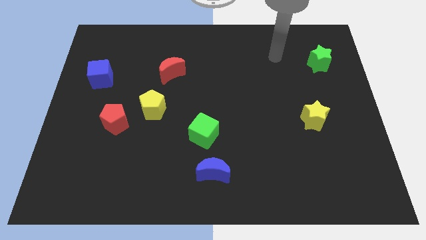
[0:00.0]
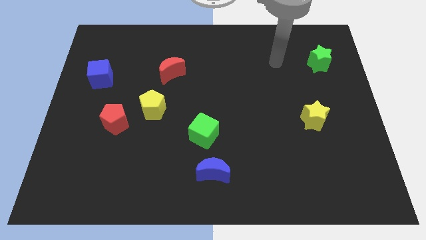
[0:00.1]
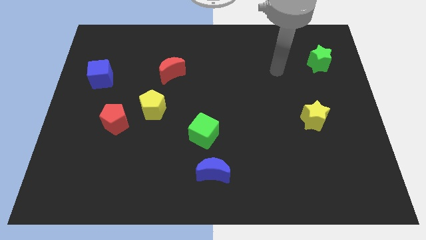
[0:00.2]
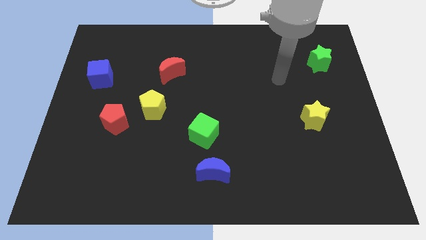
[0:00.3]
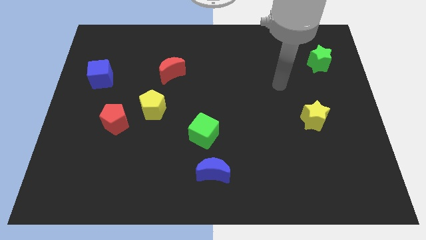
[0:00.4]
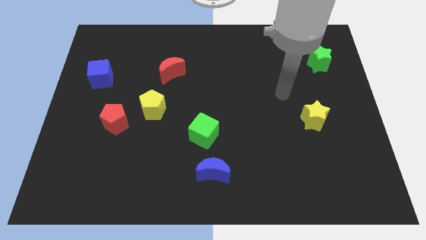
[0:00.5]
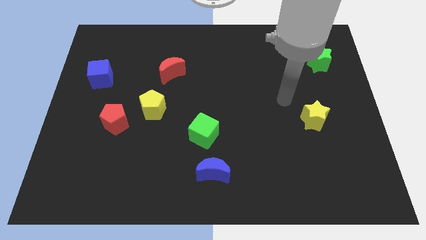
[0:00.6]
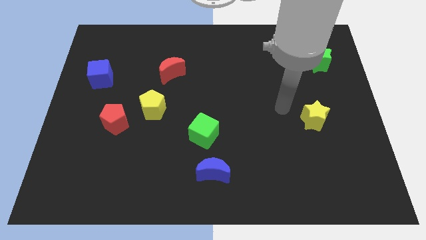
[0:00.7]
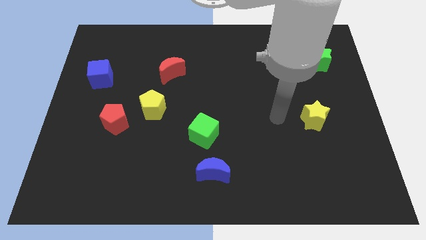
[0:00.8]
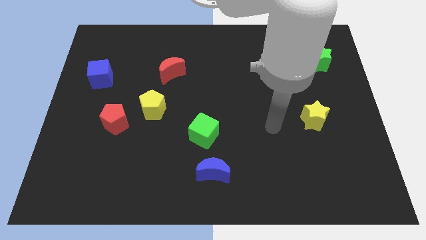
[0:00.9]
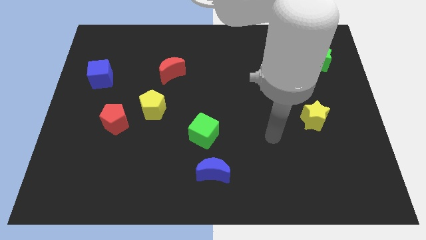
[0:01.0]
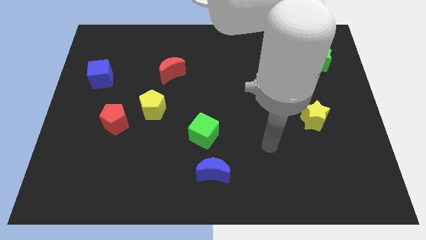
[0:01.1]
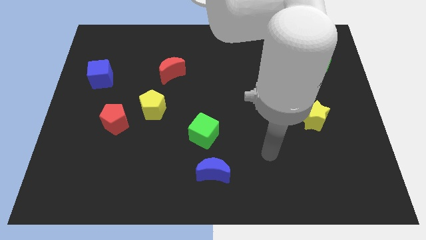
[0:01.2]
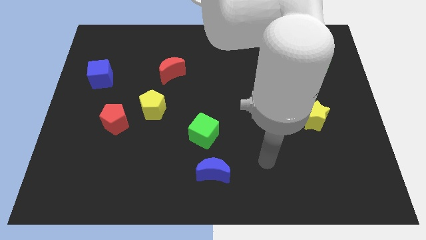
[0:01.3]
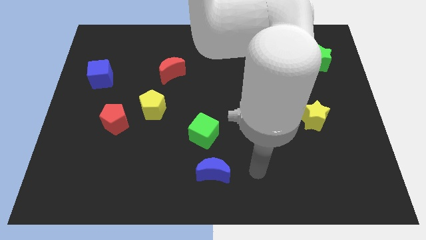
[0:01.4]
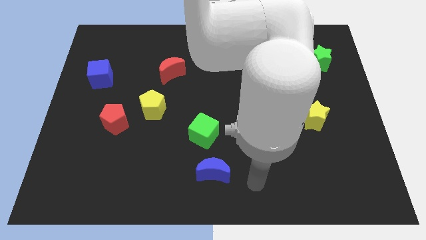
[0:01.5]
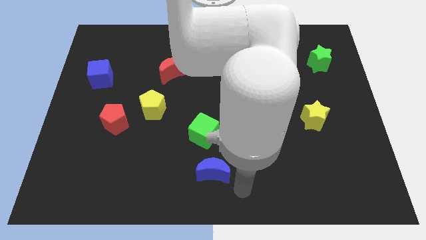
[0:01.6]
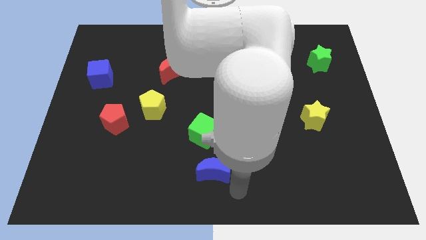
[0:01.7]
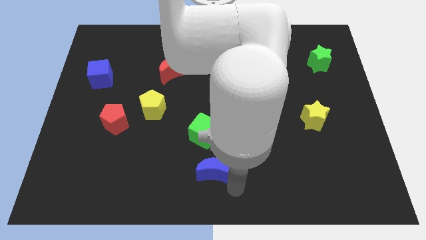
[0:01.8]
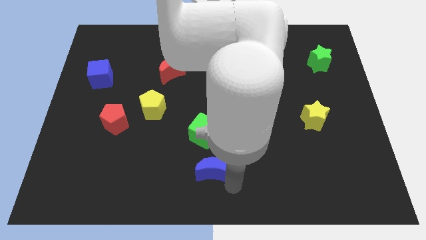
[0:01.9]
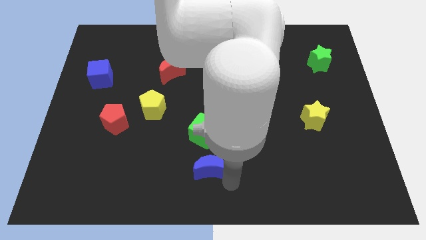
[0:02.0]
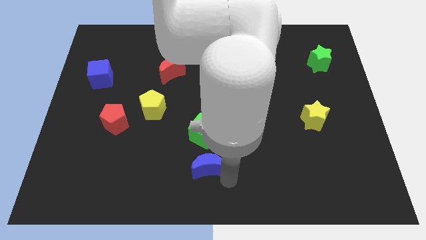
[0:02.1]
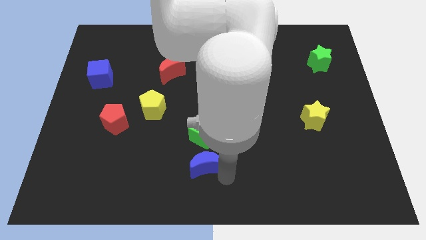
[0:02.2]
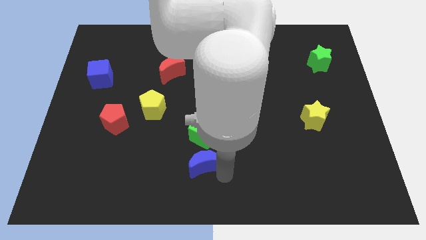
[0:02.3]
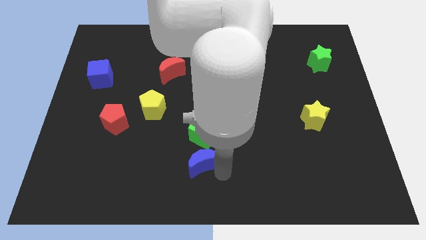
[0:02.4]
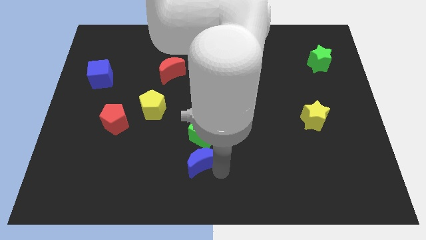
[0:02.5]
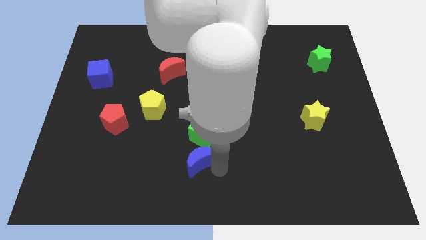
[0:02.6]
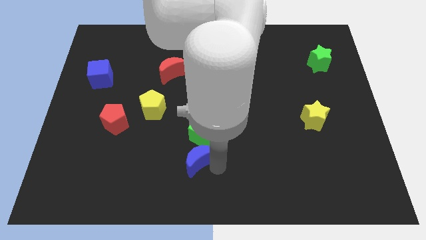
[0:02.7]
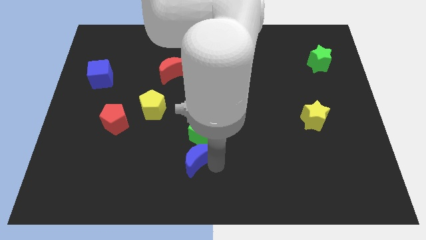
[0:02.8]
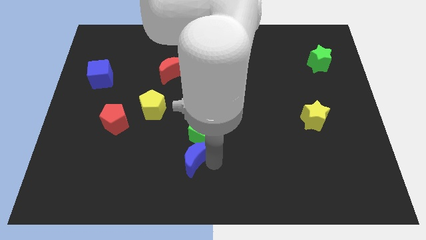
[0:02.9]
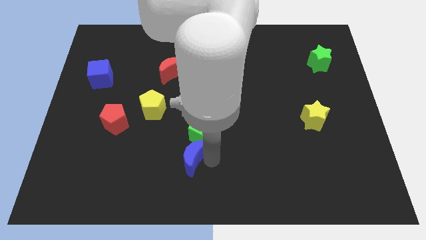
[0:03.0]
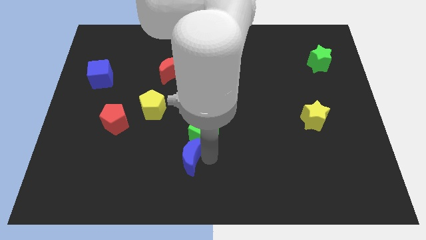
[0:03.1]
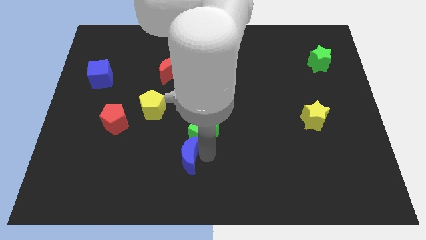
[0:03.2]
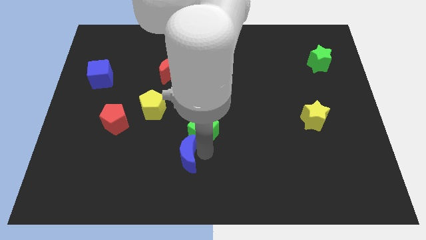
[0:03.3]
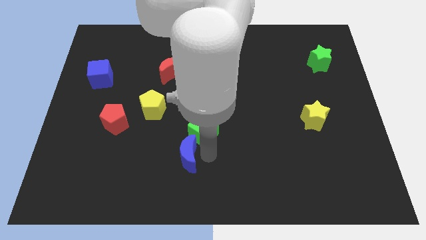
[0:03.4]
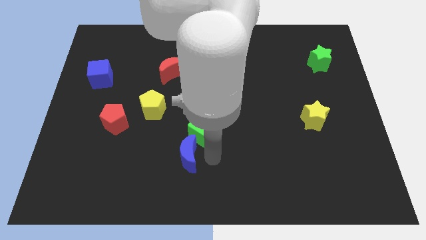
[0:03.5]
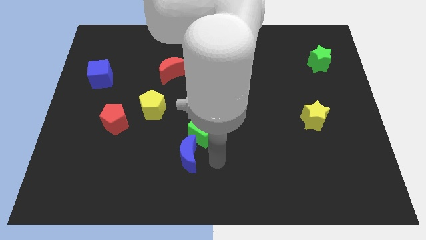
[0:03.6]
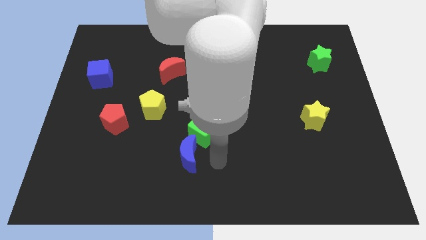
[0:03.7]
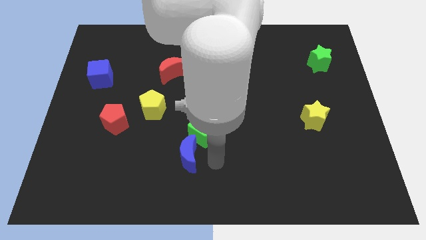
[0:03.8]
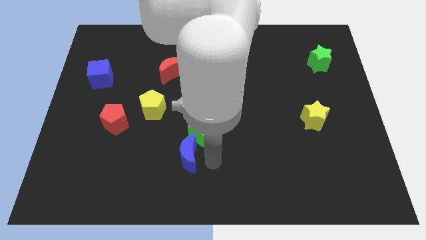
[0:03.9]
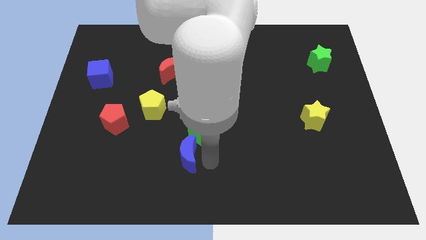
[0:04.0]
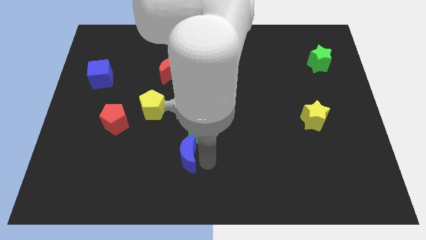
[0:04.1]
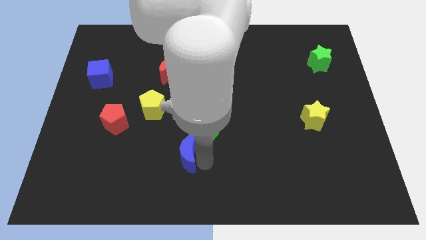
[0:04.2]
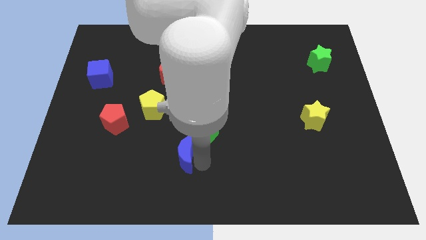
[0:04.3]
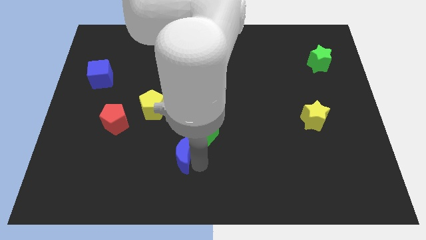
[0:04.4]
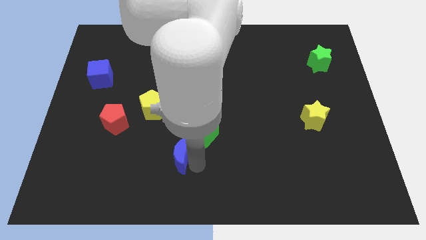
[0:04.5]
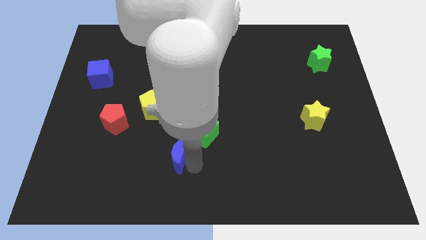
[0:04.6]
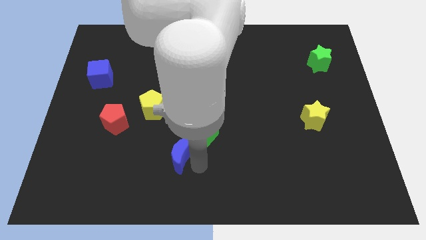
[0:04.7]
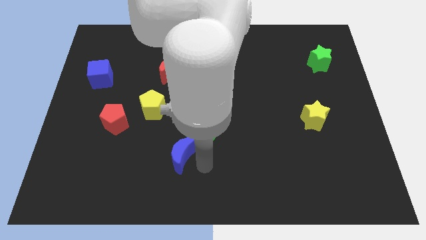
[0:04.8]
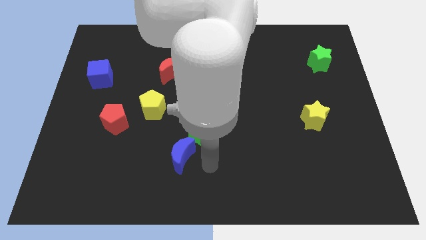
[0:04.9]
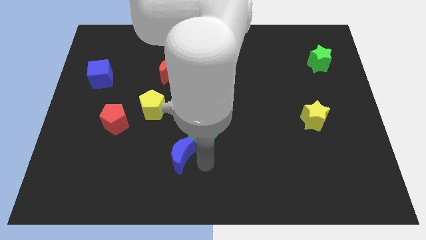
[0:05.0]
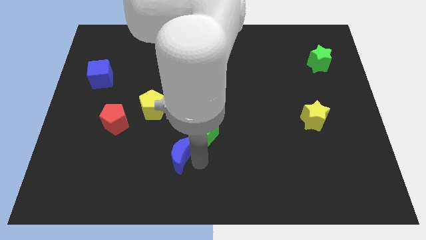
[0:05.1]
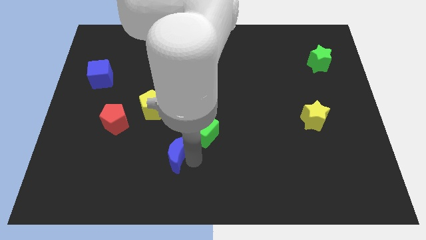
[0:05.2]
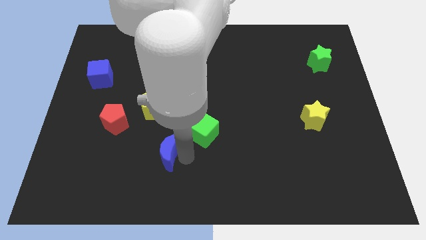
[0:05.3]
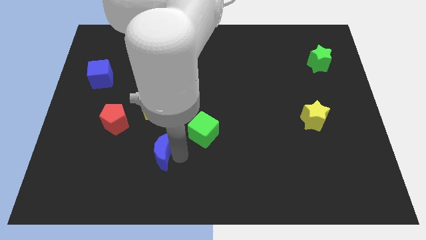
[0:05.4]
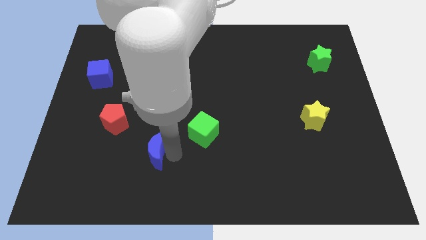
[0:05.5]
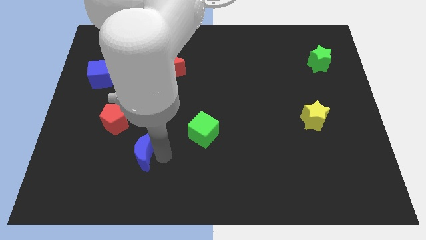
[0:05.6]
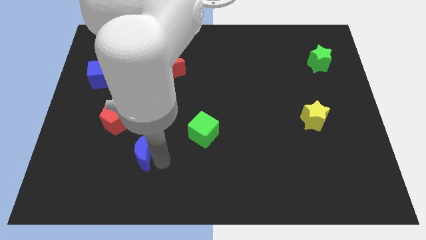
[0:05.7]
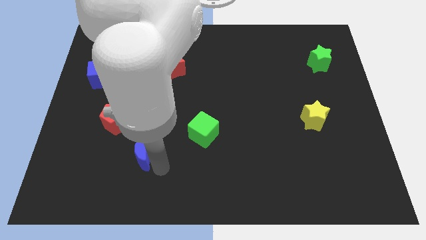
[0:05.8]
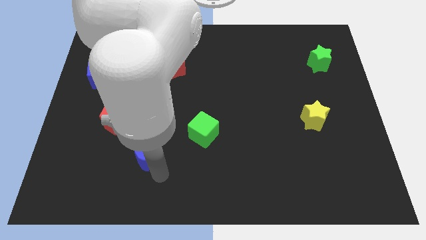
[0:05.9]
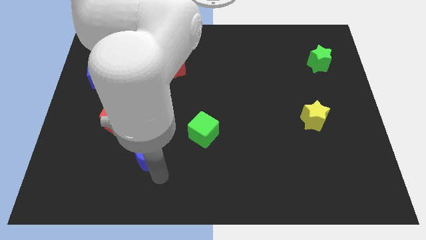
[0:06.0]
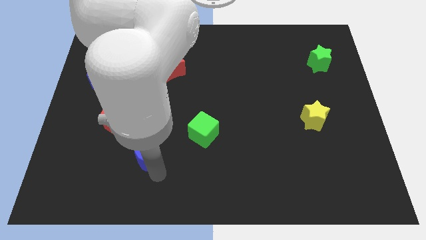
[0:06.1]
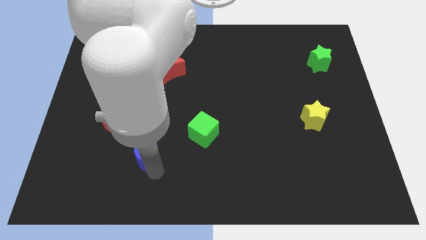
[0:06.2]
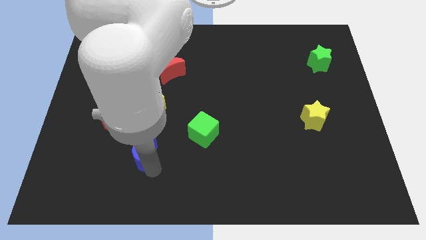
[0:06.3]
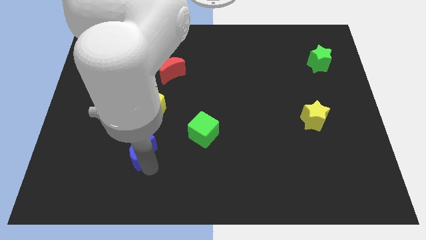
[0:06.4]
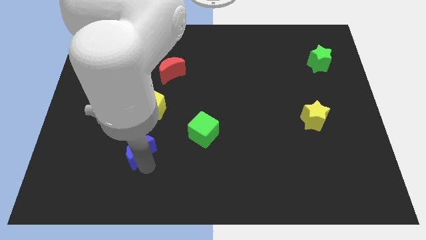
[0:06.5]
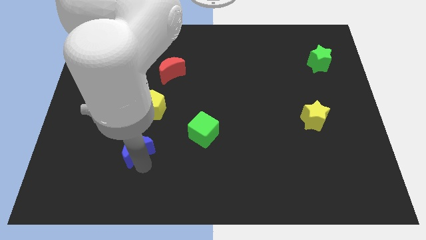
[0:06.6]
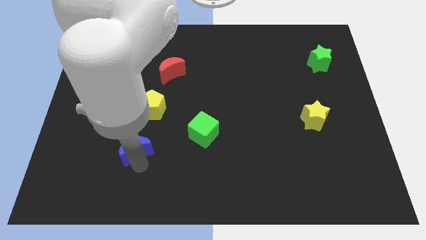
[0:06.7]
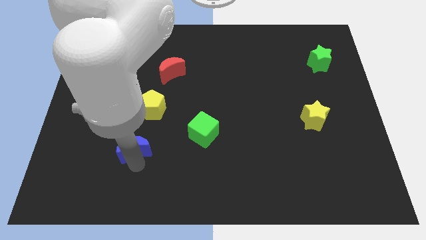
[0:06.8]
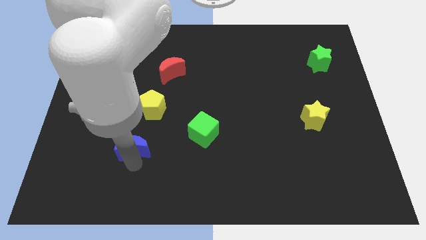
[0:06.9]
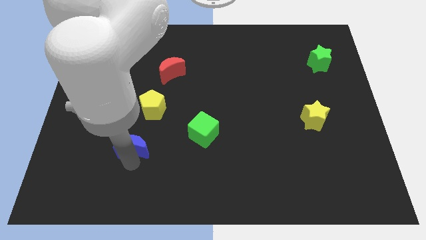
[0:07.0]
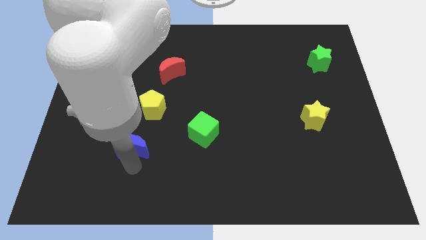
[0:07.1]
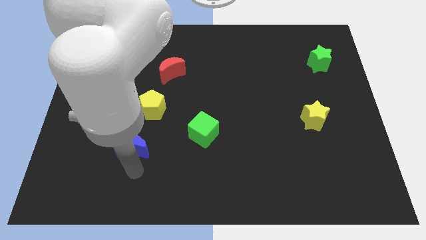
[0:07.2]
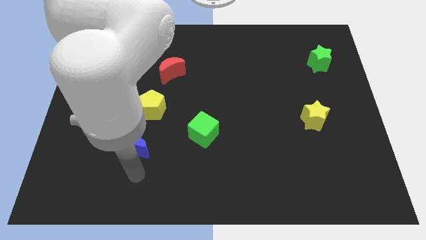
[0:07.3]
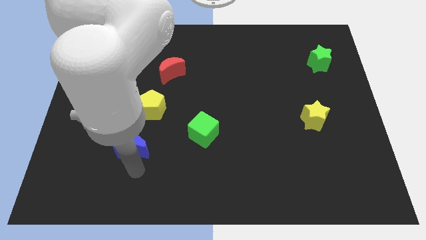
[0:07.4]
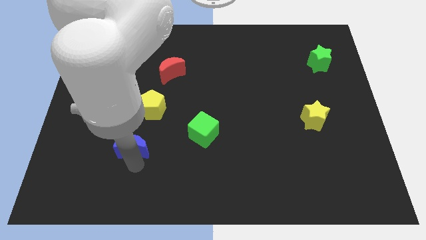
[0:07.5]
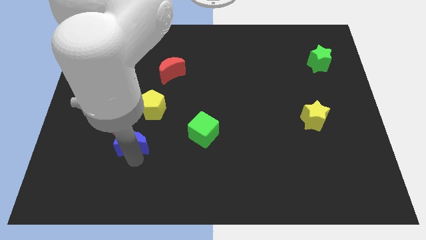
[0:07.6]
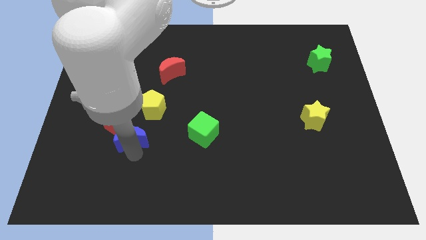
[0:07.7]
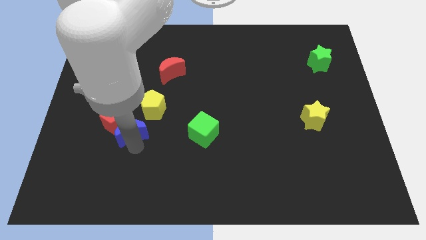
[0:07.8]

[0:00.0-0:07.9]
slide the blue moon next to the red pentagon
